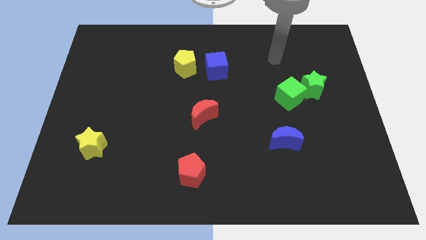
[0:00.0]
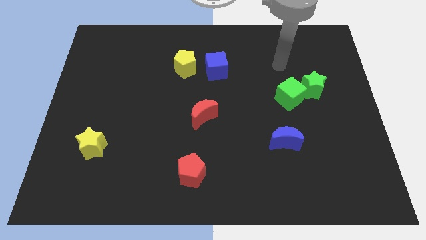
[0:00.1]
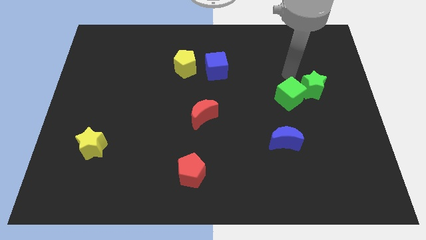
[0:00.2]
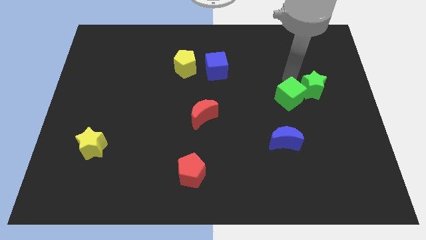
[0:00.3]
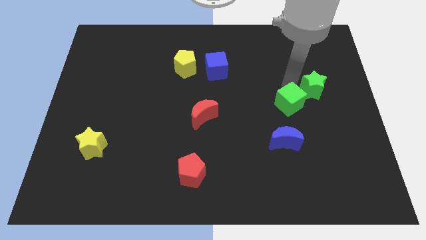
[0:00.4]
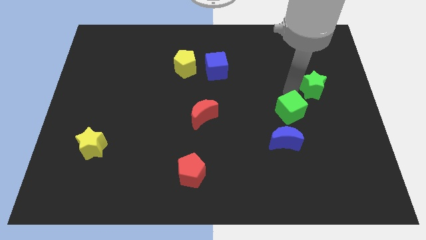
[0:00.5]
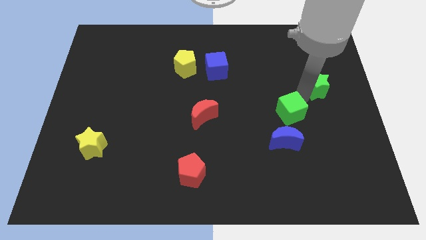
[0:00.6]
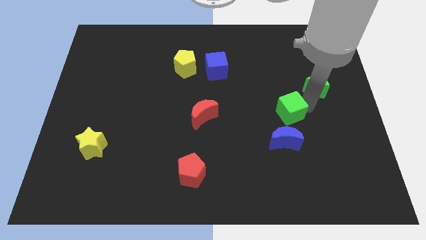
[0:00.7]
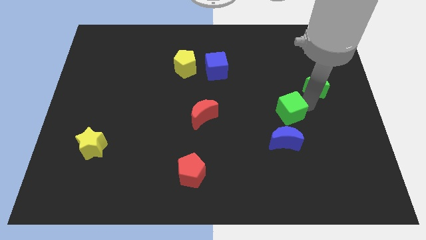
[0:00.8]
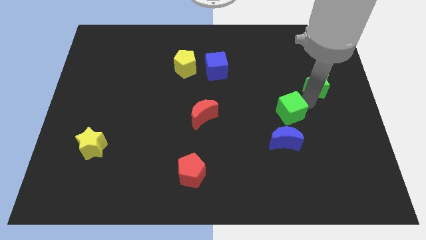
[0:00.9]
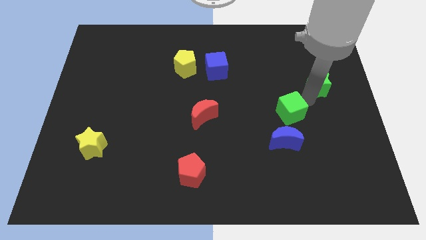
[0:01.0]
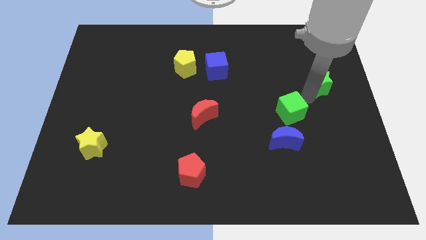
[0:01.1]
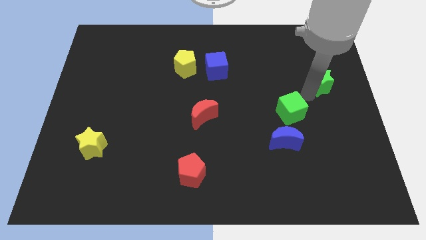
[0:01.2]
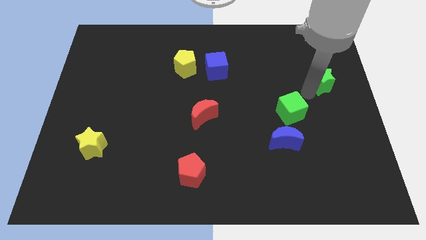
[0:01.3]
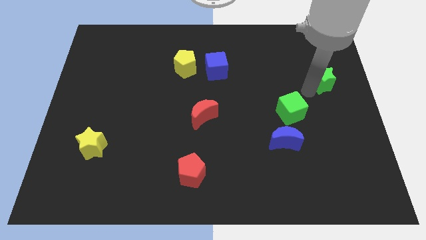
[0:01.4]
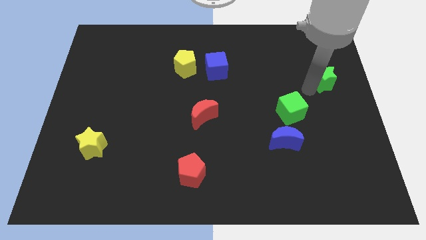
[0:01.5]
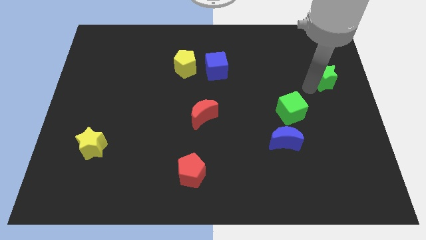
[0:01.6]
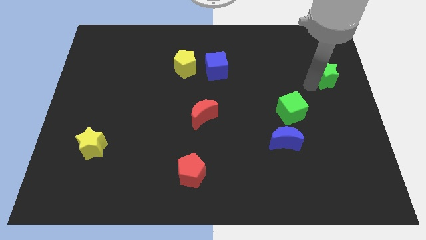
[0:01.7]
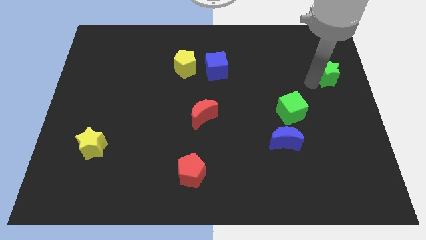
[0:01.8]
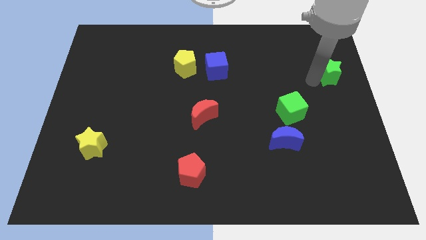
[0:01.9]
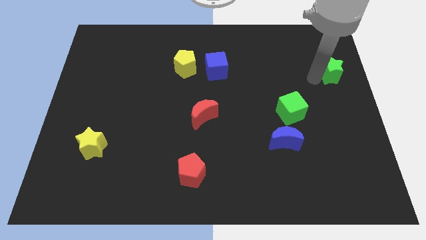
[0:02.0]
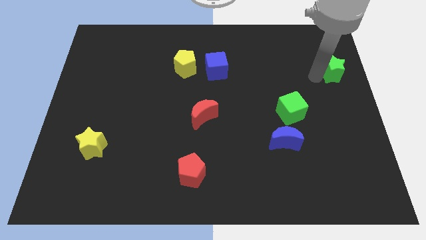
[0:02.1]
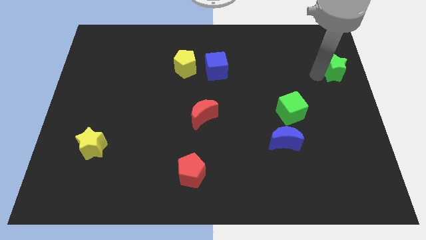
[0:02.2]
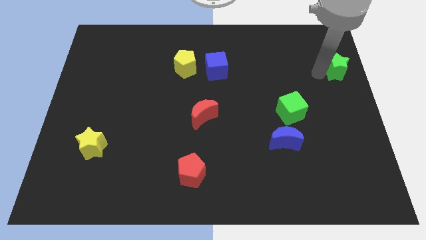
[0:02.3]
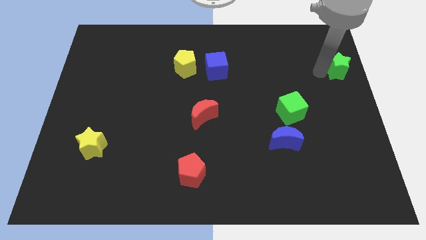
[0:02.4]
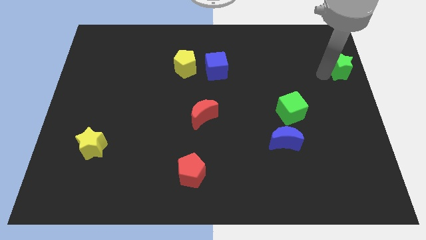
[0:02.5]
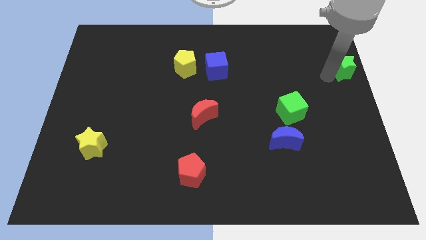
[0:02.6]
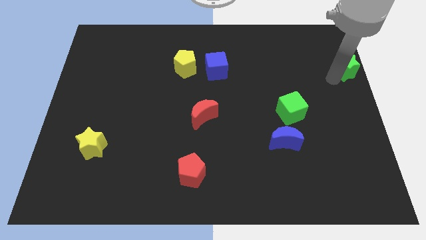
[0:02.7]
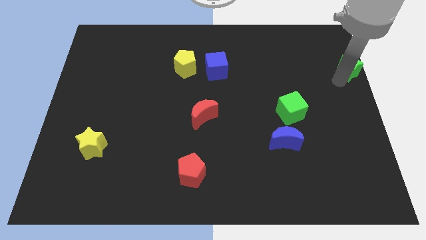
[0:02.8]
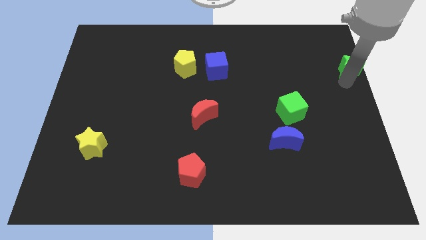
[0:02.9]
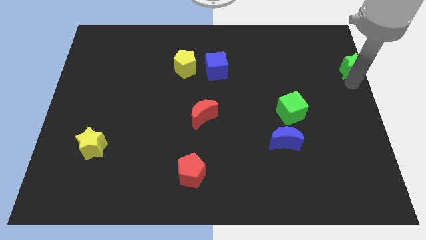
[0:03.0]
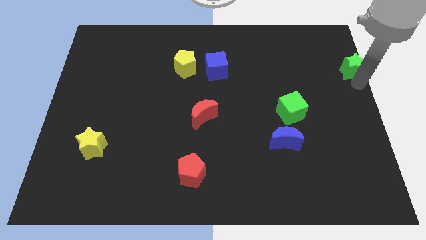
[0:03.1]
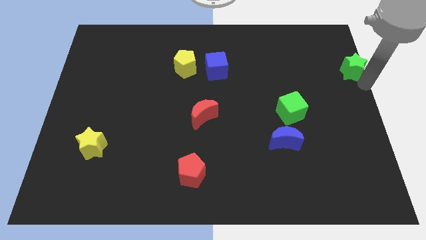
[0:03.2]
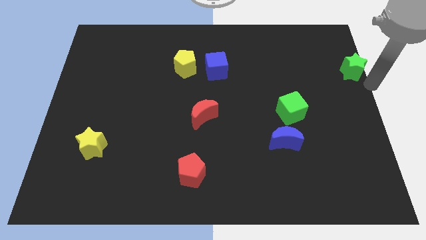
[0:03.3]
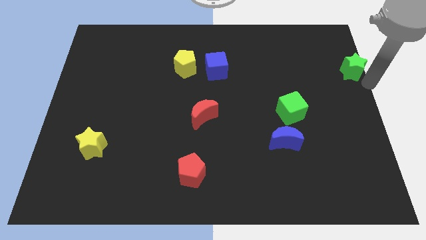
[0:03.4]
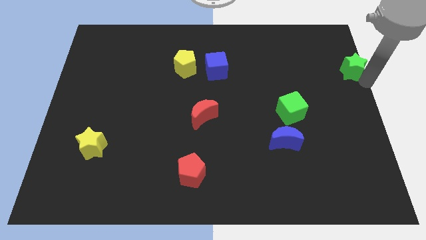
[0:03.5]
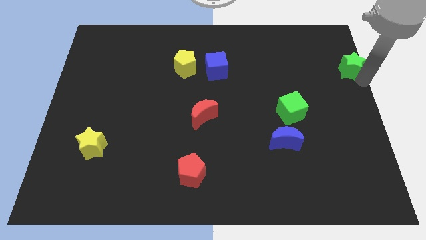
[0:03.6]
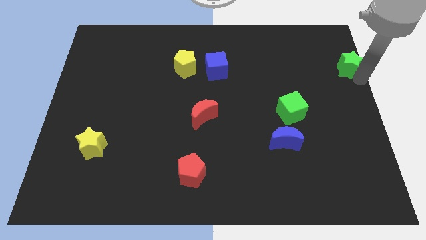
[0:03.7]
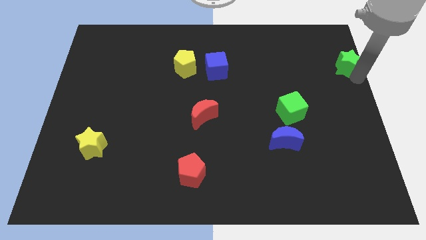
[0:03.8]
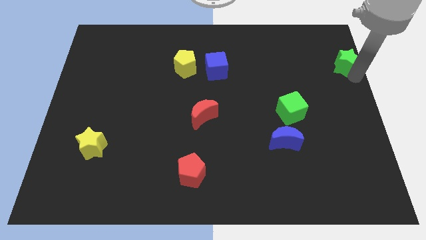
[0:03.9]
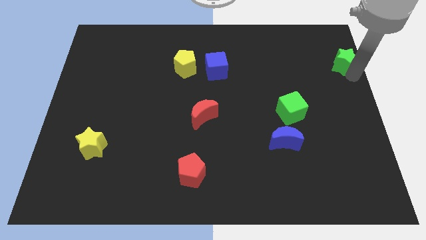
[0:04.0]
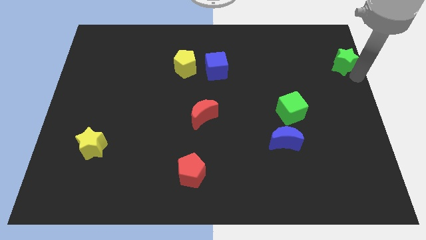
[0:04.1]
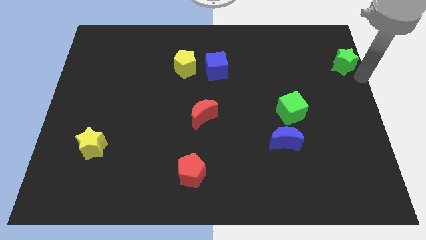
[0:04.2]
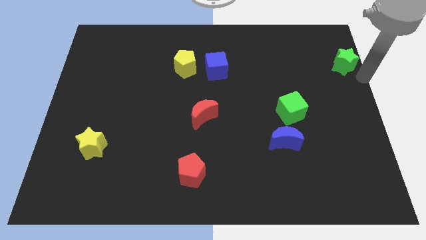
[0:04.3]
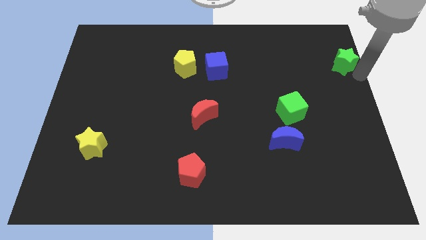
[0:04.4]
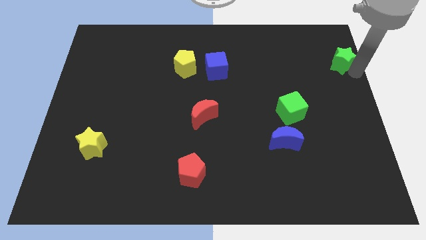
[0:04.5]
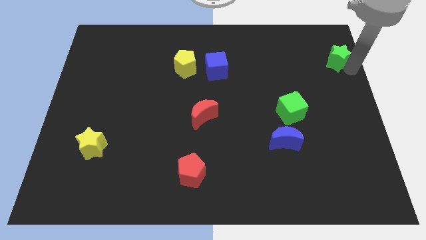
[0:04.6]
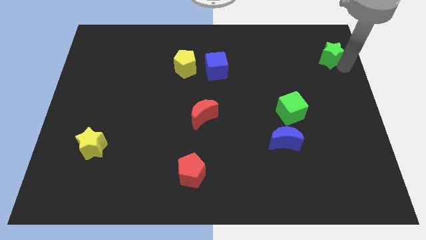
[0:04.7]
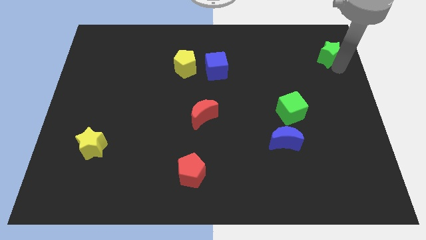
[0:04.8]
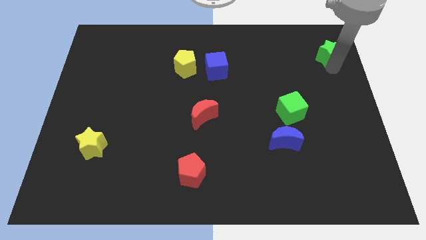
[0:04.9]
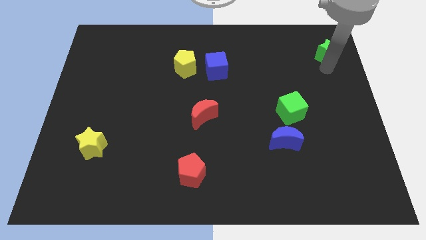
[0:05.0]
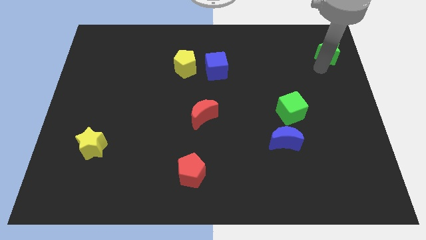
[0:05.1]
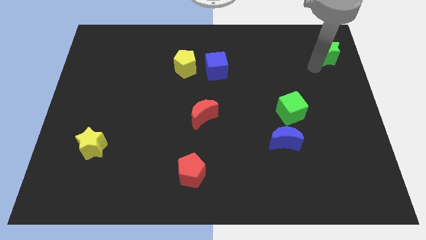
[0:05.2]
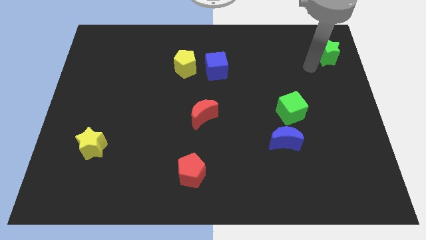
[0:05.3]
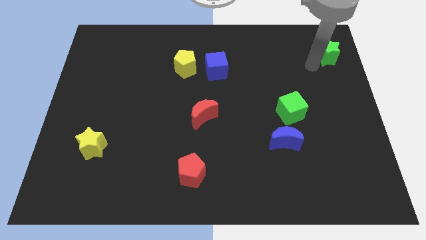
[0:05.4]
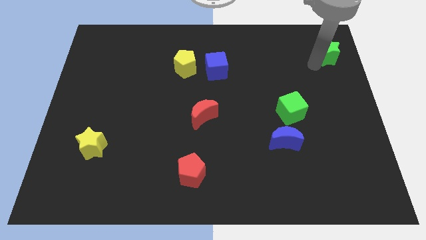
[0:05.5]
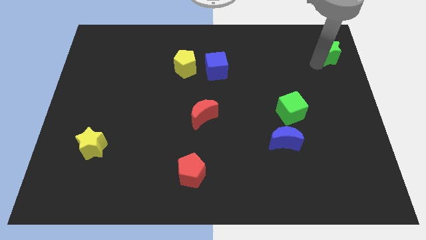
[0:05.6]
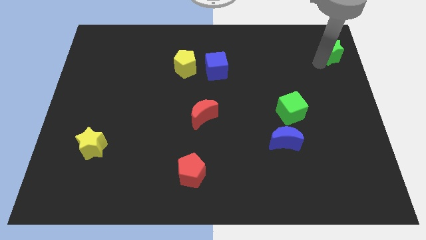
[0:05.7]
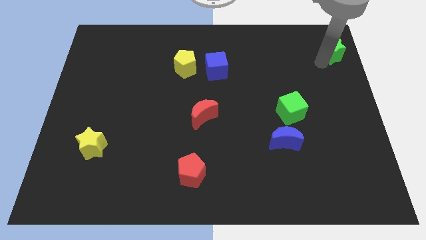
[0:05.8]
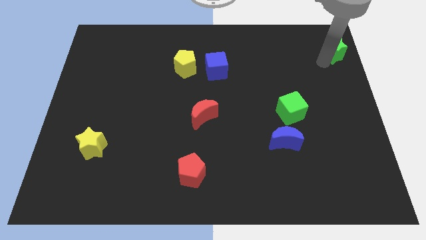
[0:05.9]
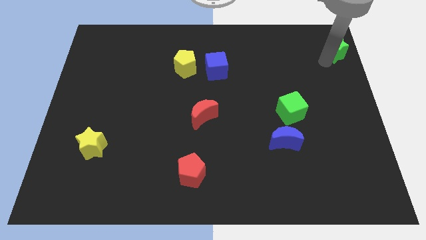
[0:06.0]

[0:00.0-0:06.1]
slide the green star to the top right of the board

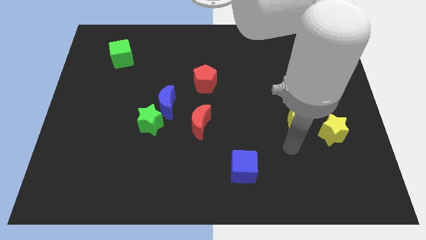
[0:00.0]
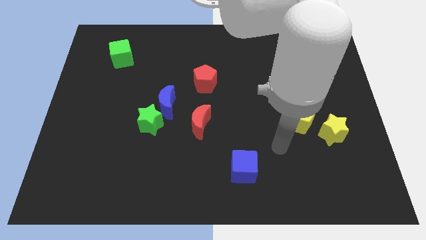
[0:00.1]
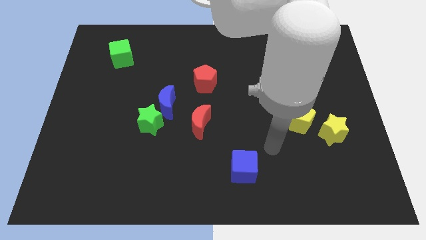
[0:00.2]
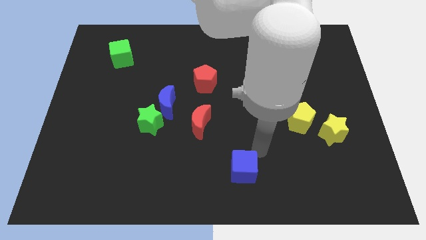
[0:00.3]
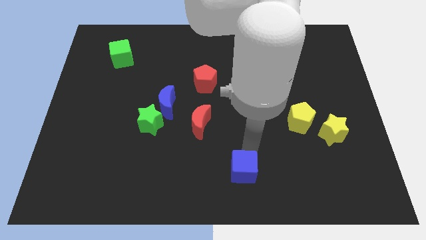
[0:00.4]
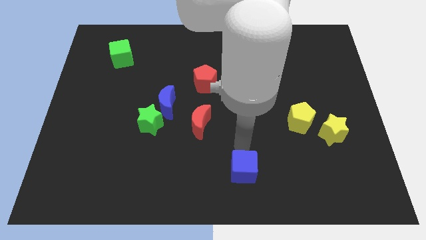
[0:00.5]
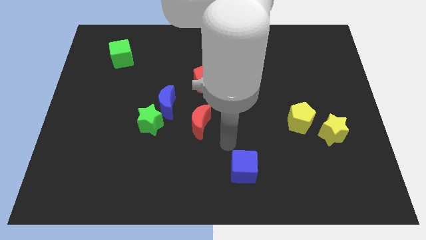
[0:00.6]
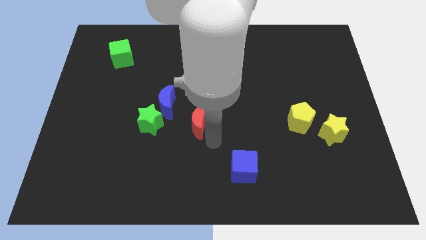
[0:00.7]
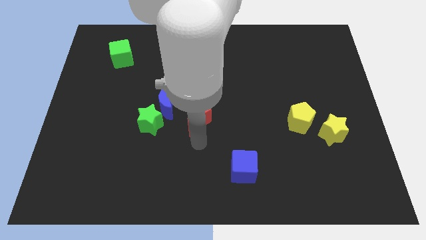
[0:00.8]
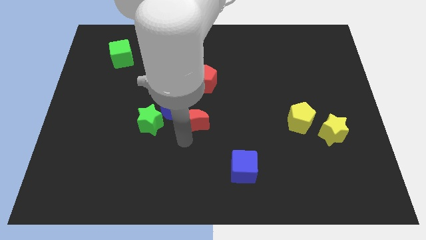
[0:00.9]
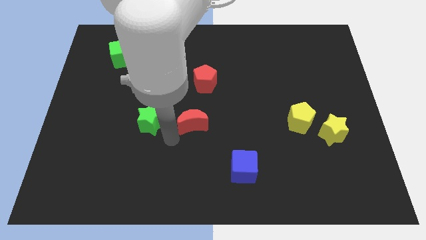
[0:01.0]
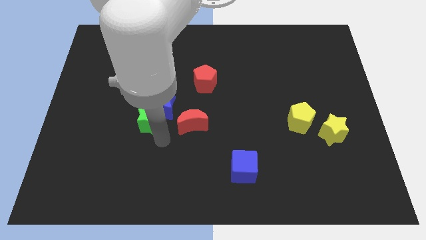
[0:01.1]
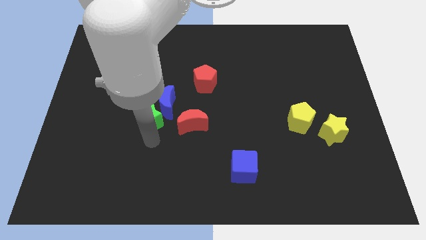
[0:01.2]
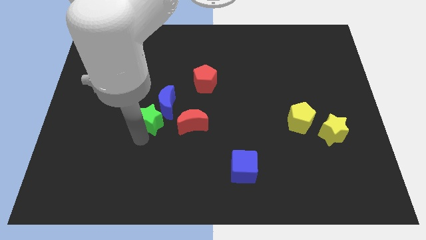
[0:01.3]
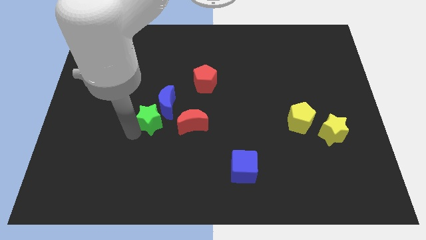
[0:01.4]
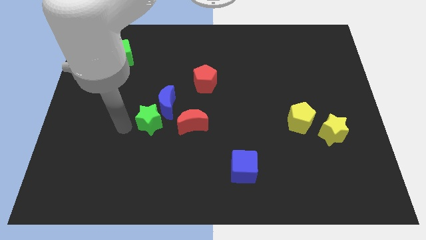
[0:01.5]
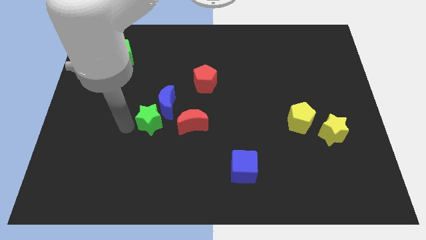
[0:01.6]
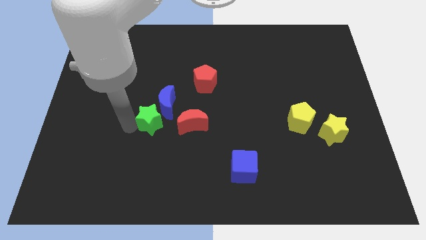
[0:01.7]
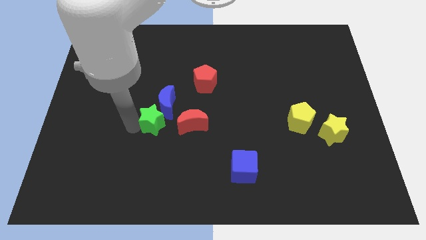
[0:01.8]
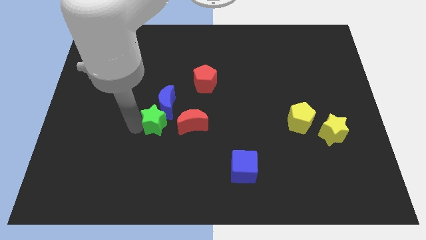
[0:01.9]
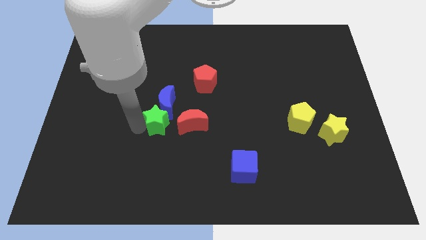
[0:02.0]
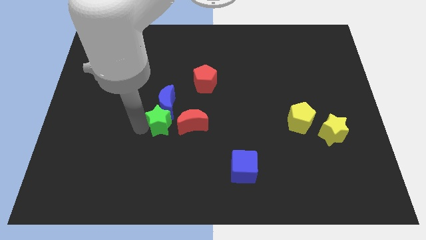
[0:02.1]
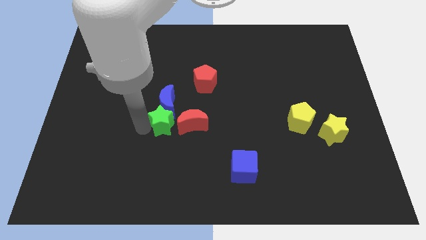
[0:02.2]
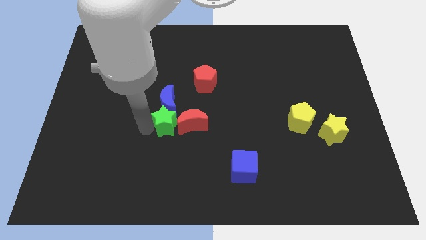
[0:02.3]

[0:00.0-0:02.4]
push the green star to the middle
